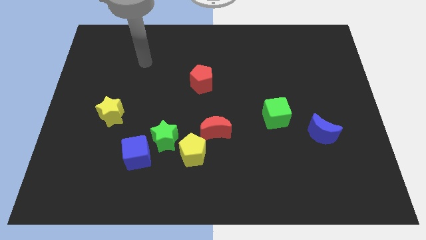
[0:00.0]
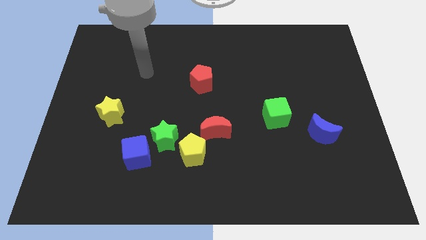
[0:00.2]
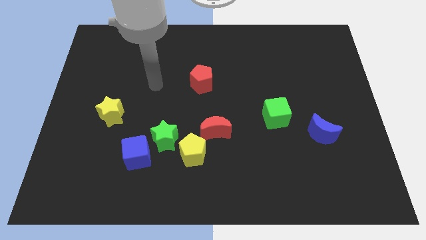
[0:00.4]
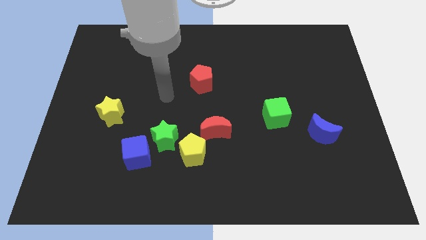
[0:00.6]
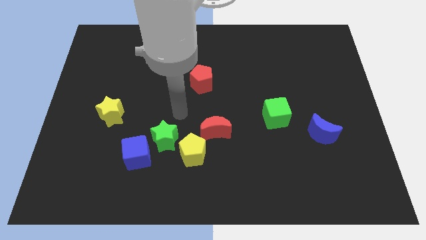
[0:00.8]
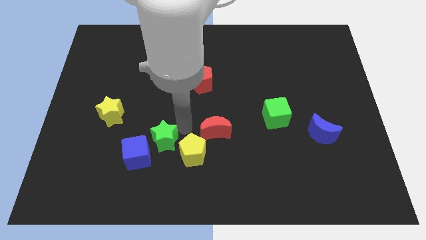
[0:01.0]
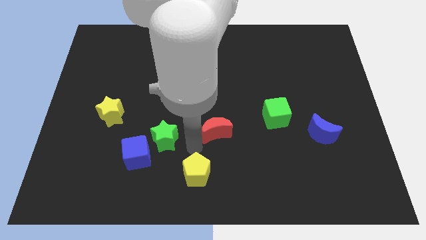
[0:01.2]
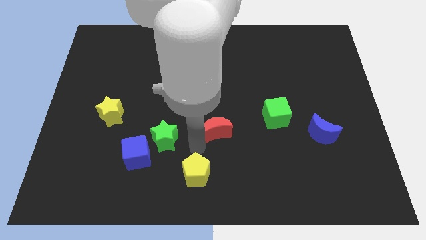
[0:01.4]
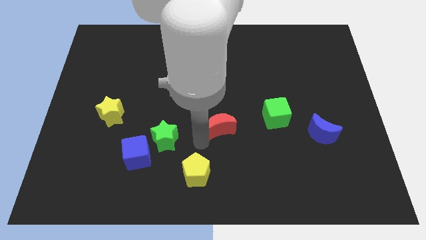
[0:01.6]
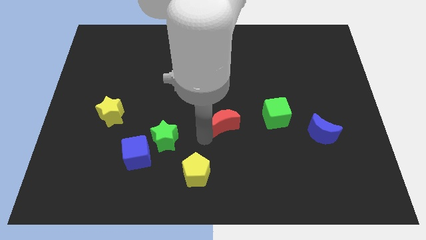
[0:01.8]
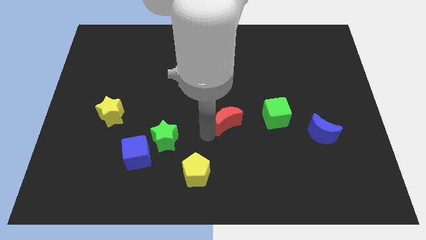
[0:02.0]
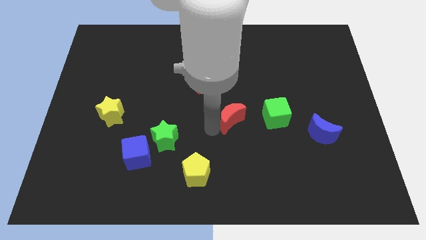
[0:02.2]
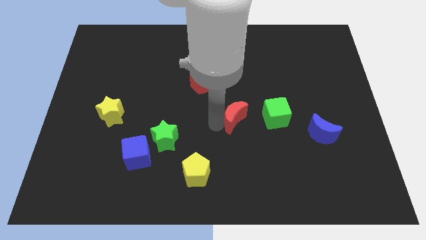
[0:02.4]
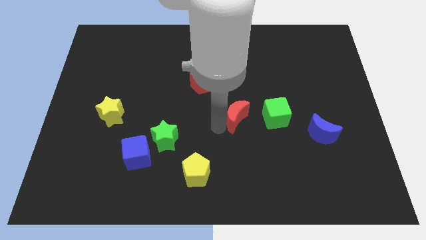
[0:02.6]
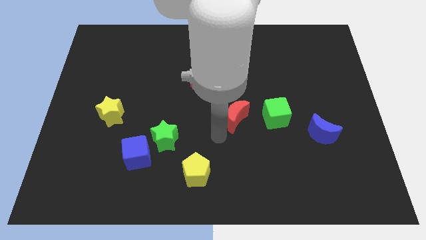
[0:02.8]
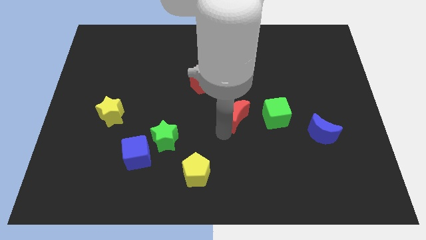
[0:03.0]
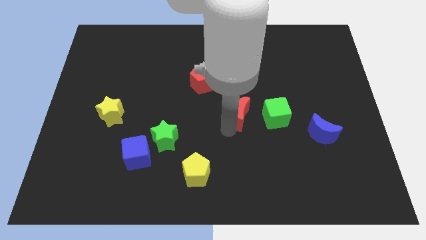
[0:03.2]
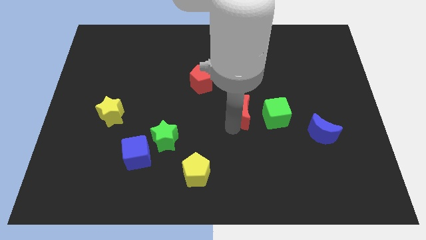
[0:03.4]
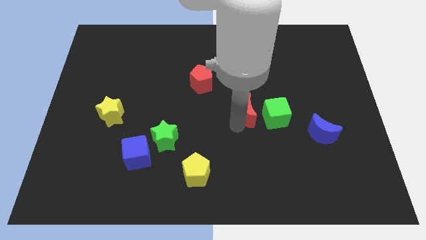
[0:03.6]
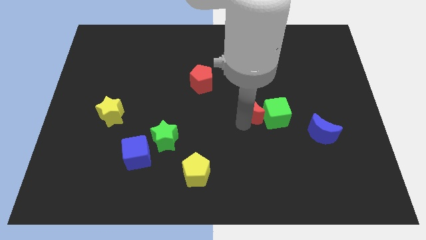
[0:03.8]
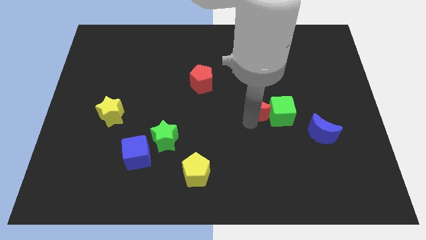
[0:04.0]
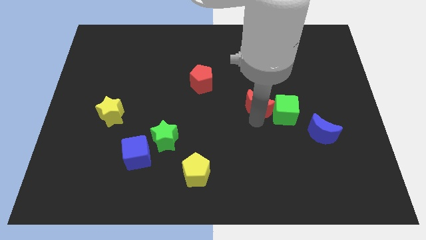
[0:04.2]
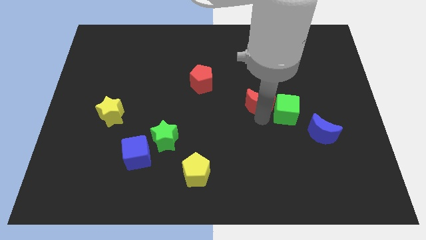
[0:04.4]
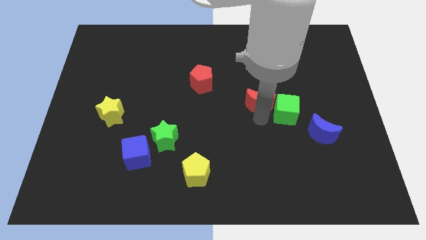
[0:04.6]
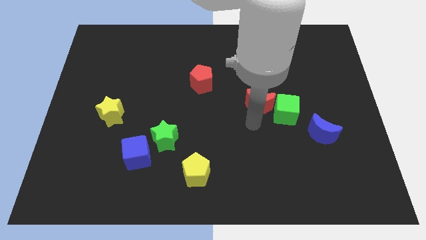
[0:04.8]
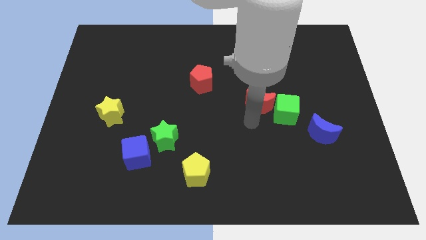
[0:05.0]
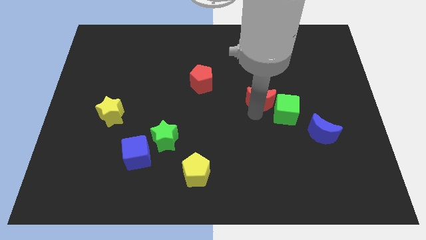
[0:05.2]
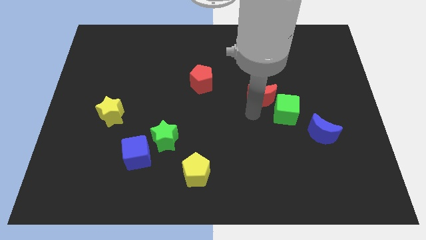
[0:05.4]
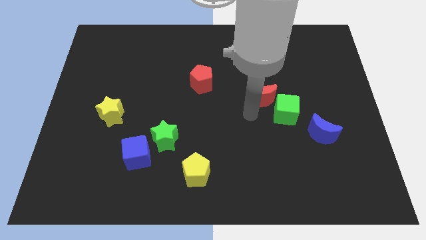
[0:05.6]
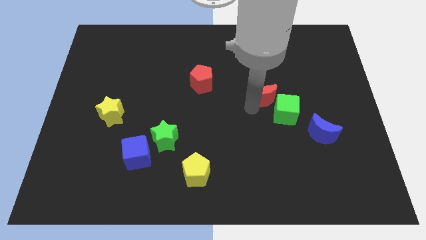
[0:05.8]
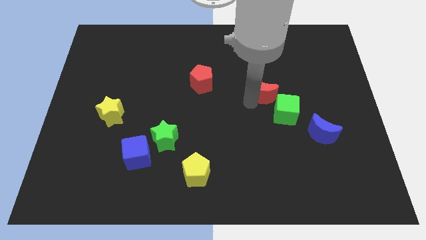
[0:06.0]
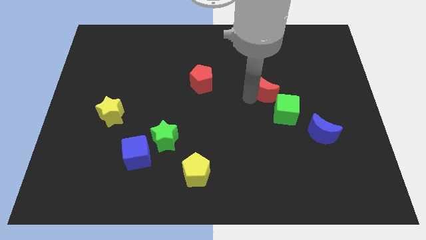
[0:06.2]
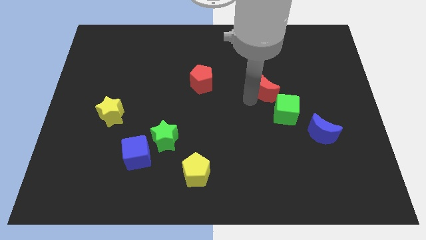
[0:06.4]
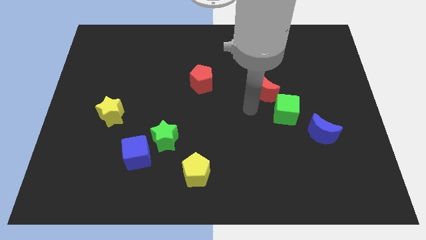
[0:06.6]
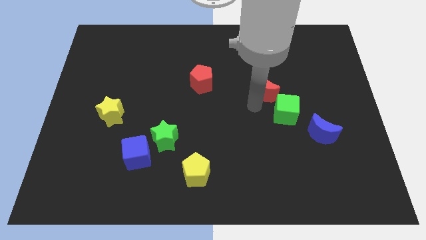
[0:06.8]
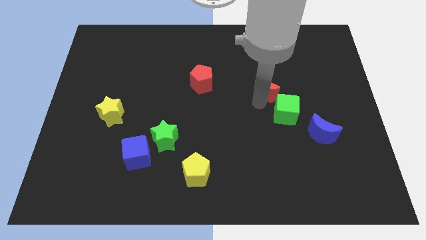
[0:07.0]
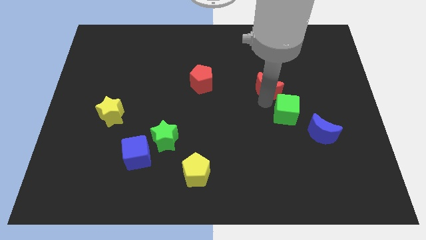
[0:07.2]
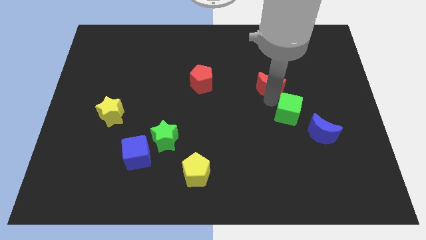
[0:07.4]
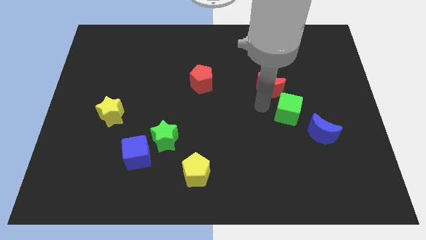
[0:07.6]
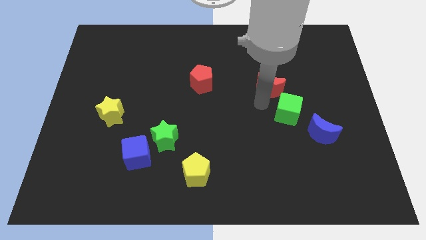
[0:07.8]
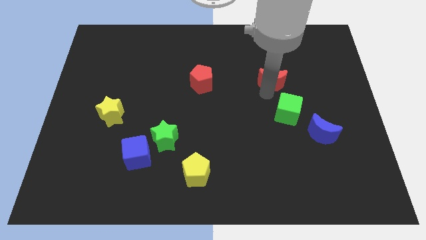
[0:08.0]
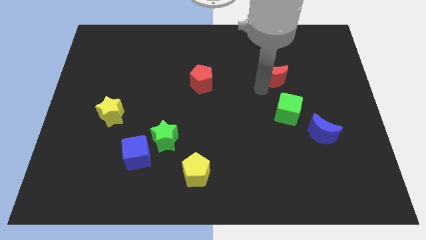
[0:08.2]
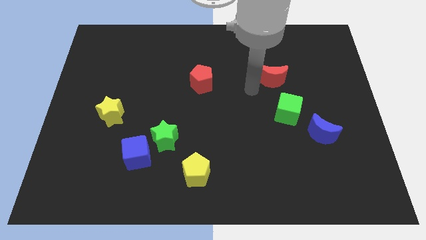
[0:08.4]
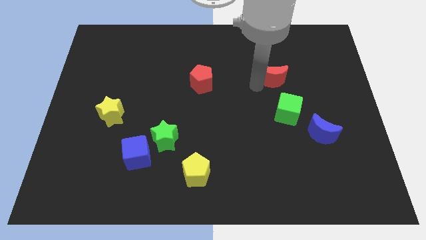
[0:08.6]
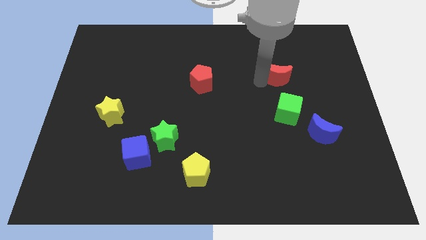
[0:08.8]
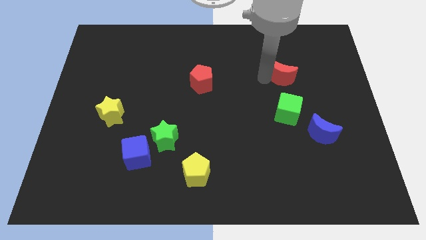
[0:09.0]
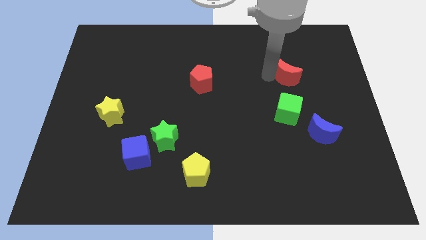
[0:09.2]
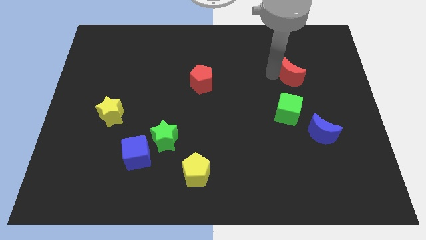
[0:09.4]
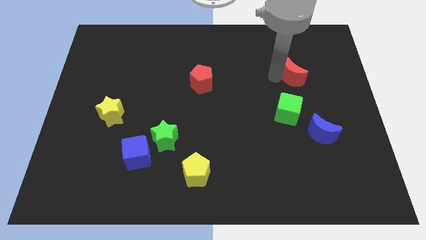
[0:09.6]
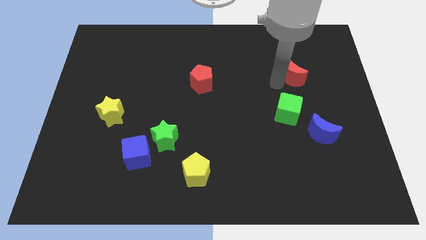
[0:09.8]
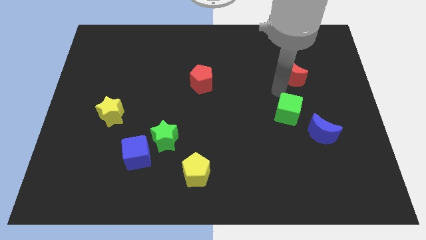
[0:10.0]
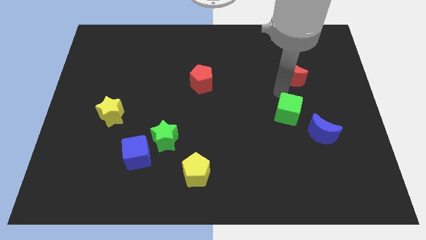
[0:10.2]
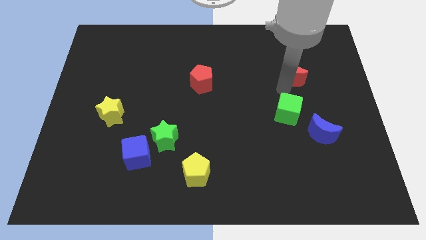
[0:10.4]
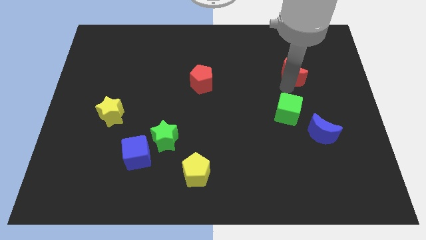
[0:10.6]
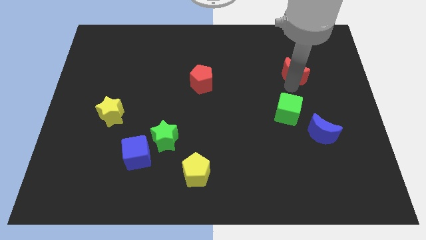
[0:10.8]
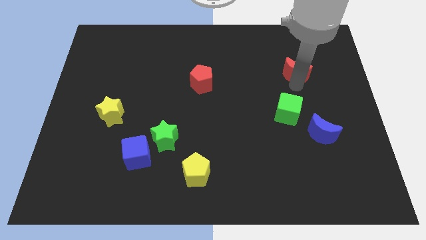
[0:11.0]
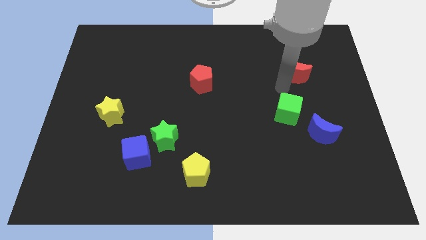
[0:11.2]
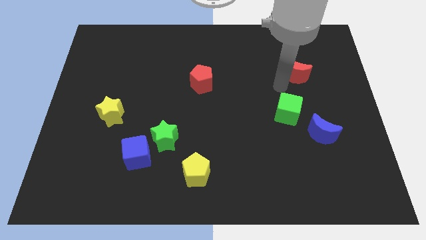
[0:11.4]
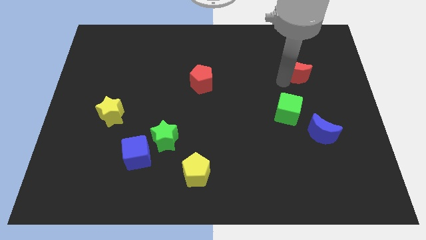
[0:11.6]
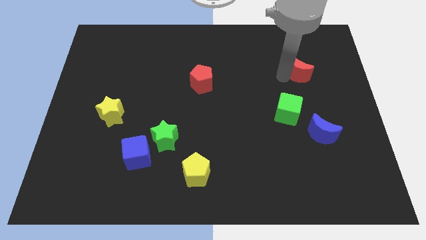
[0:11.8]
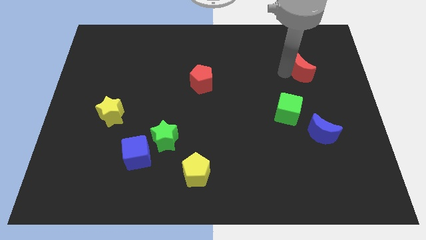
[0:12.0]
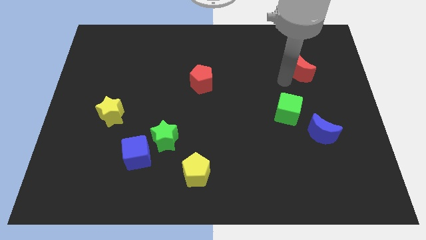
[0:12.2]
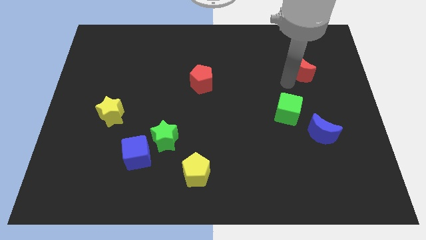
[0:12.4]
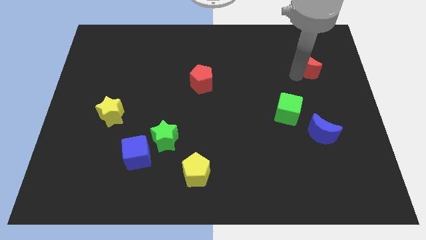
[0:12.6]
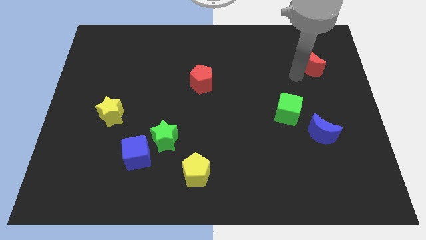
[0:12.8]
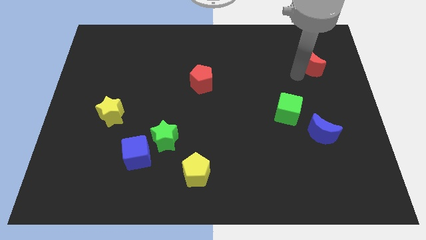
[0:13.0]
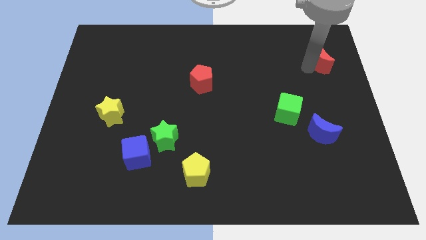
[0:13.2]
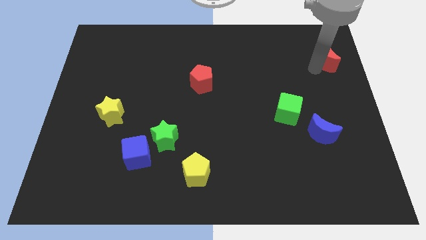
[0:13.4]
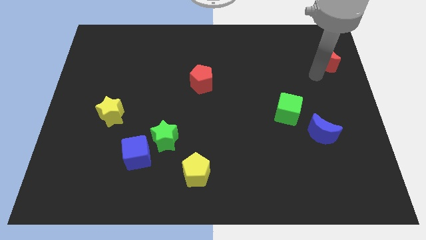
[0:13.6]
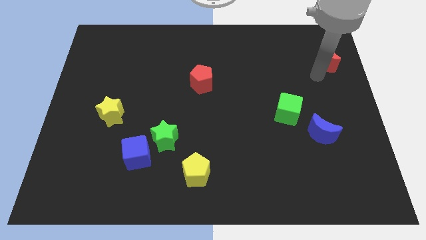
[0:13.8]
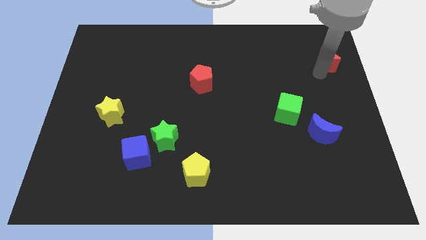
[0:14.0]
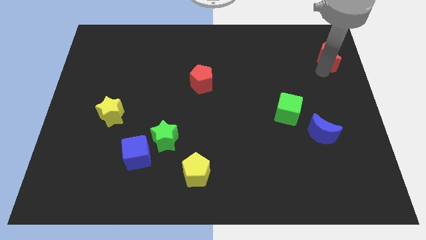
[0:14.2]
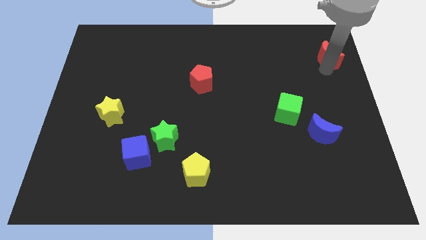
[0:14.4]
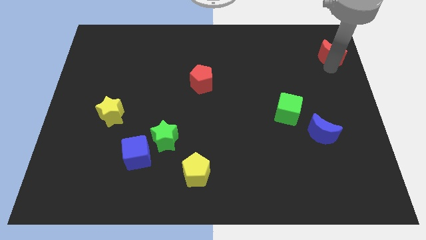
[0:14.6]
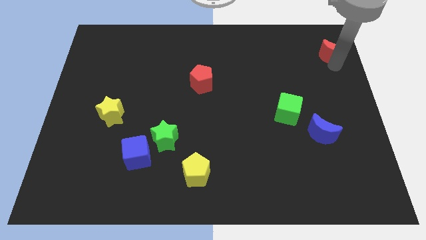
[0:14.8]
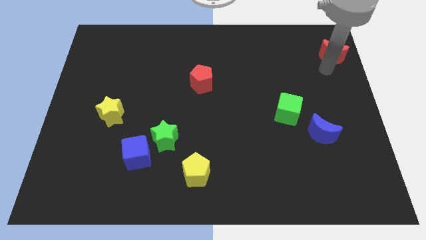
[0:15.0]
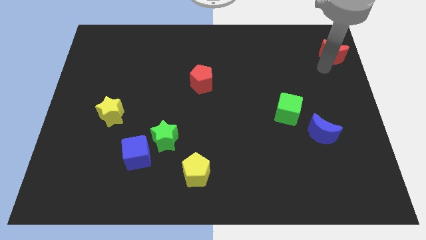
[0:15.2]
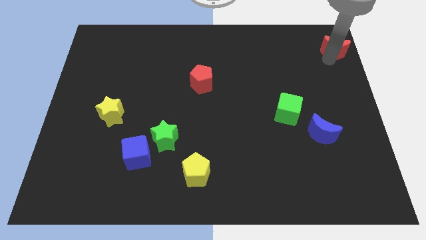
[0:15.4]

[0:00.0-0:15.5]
slide the red moon to the upper right corner
